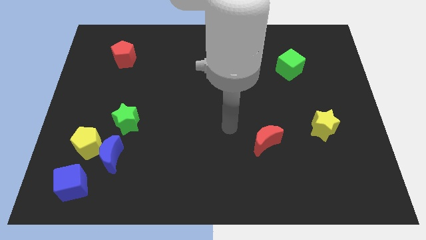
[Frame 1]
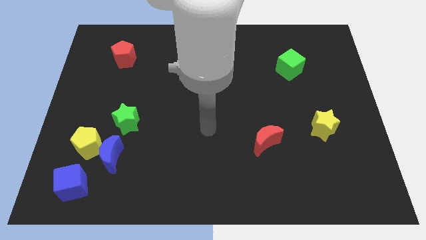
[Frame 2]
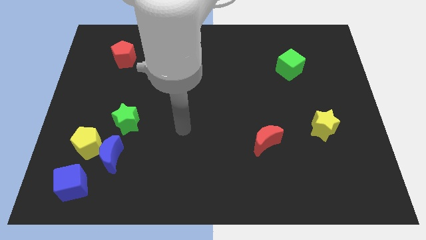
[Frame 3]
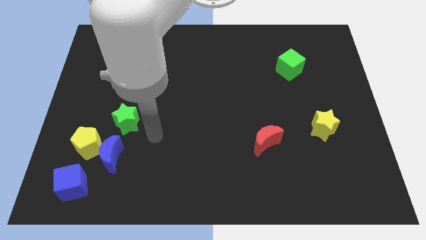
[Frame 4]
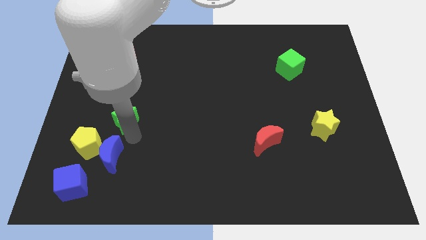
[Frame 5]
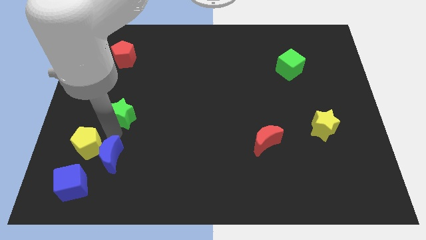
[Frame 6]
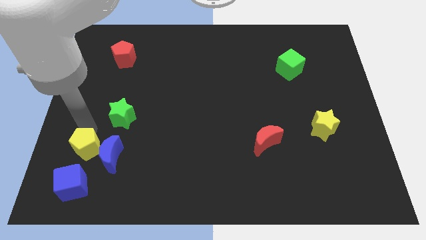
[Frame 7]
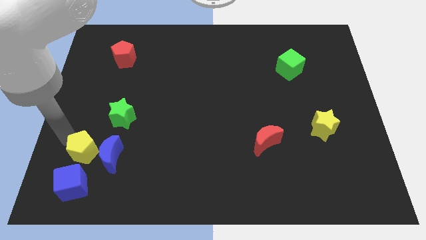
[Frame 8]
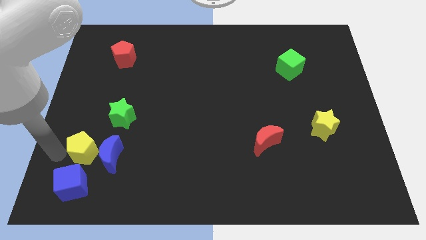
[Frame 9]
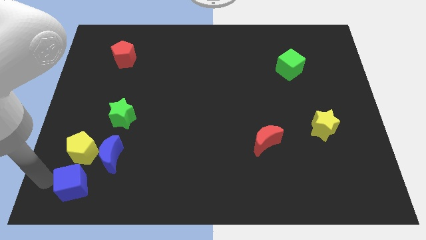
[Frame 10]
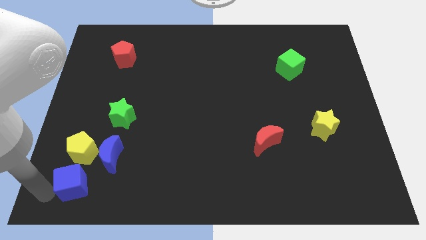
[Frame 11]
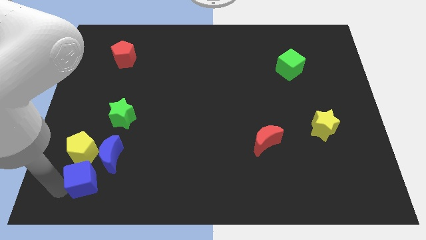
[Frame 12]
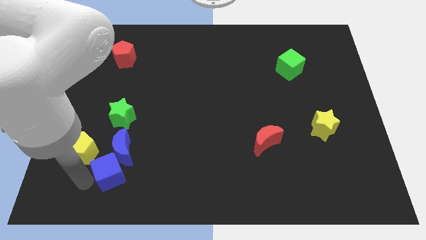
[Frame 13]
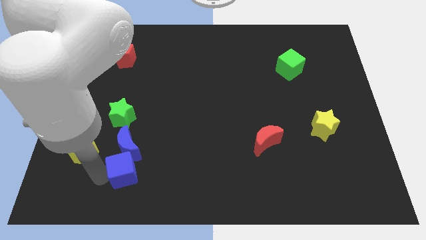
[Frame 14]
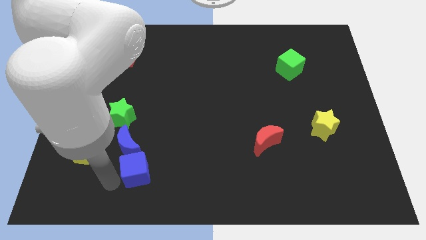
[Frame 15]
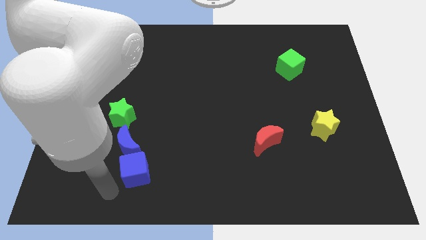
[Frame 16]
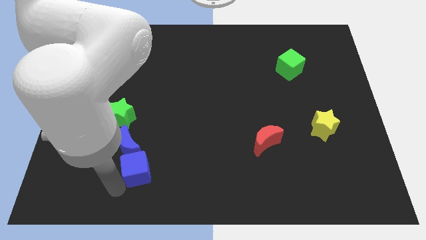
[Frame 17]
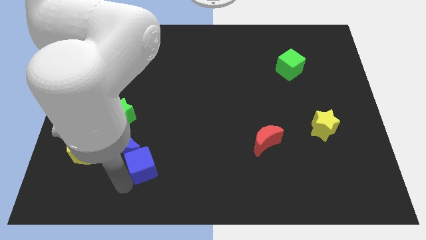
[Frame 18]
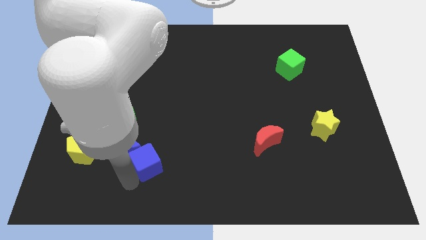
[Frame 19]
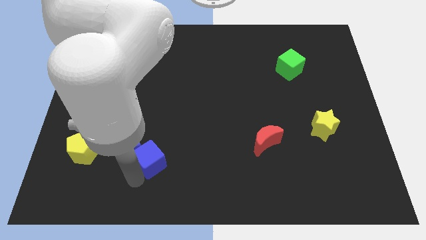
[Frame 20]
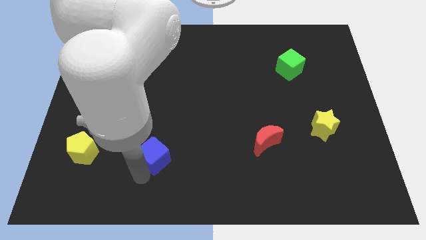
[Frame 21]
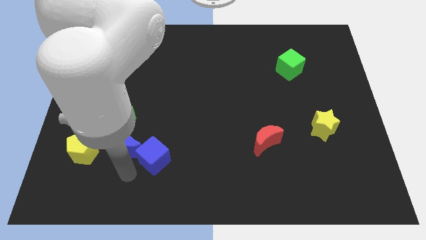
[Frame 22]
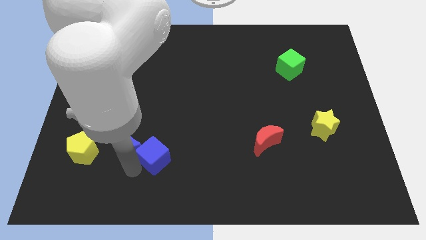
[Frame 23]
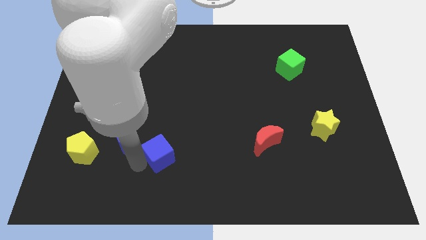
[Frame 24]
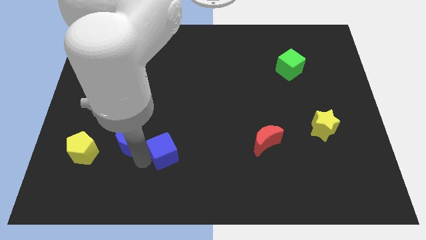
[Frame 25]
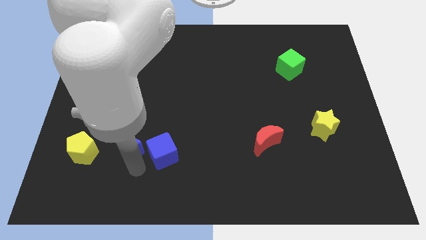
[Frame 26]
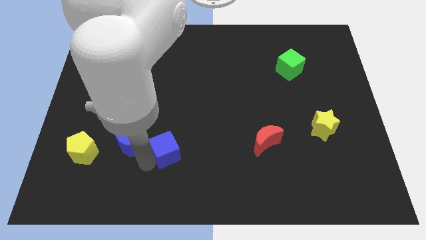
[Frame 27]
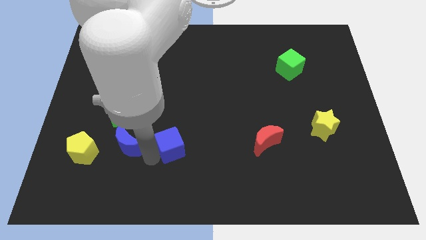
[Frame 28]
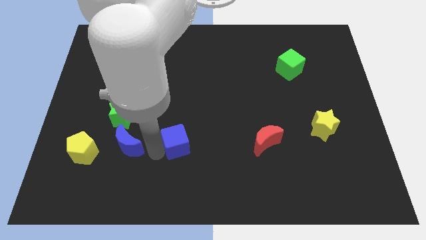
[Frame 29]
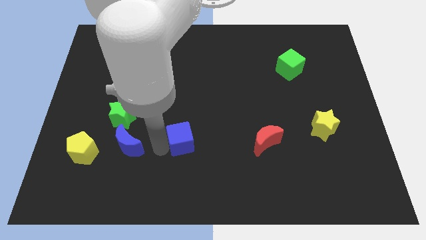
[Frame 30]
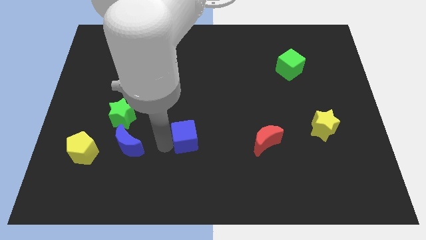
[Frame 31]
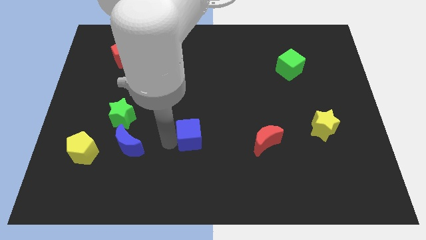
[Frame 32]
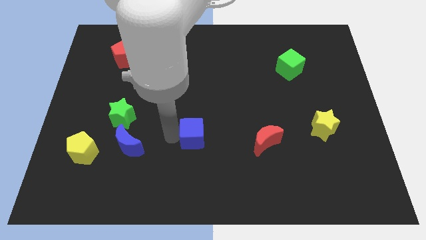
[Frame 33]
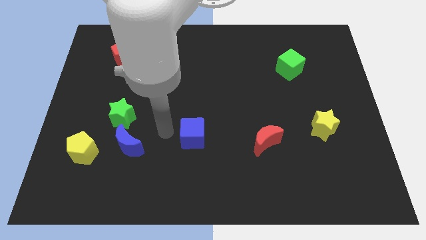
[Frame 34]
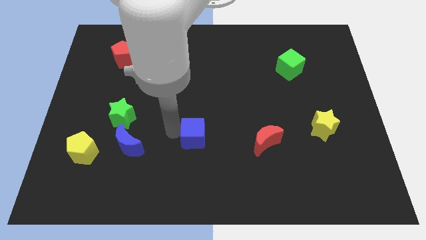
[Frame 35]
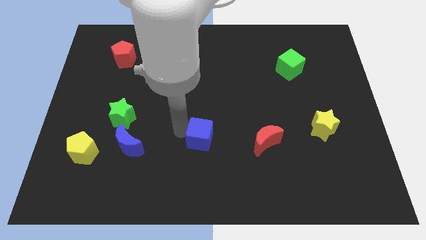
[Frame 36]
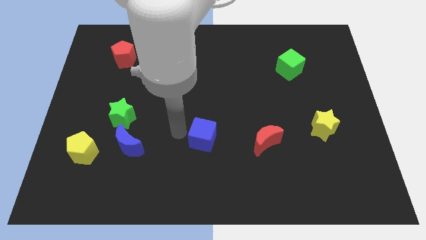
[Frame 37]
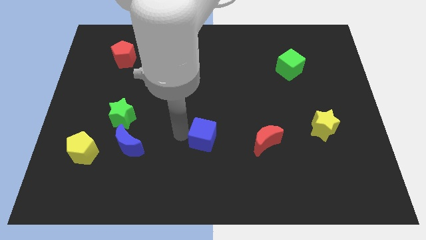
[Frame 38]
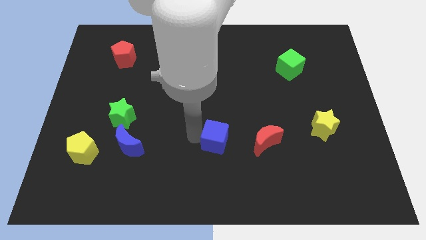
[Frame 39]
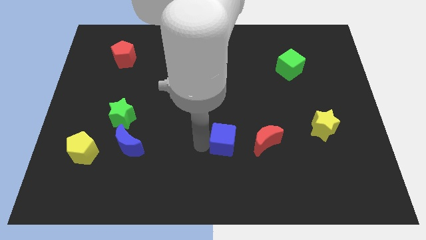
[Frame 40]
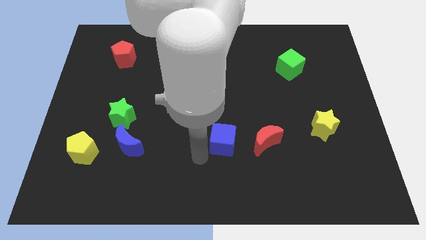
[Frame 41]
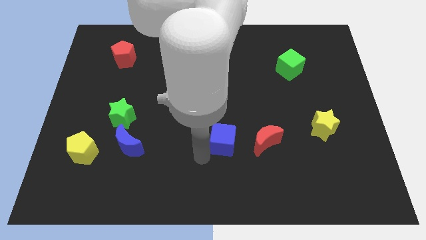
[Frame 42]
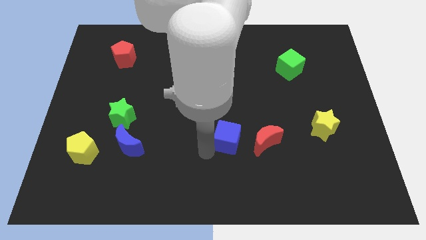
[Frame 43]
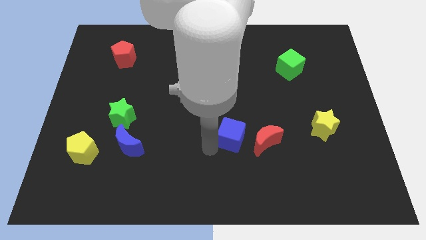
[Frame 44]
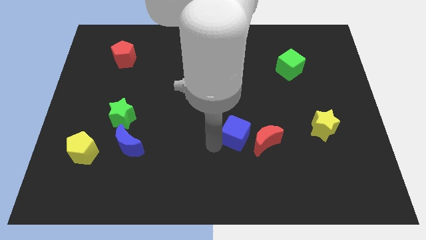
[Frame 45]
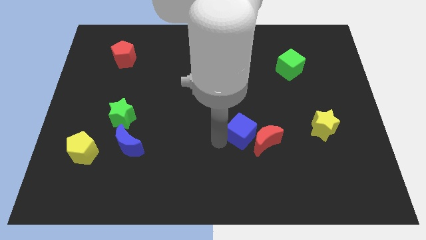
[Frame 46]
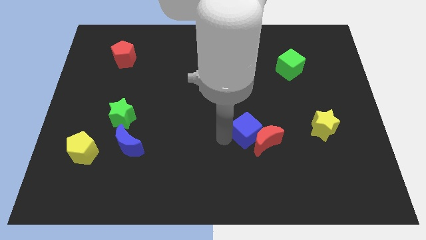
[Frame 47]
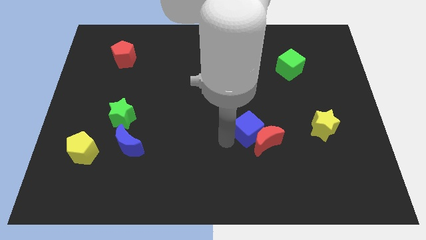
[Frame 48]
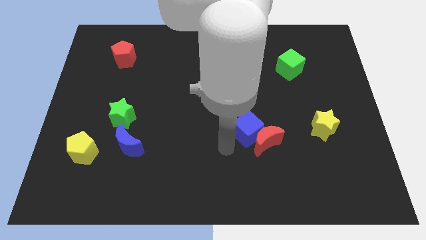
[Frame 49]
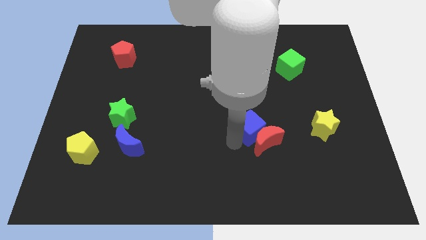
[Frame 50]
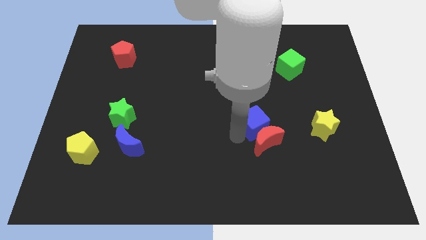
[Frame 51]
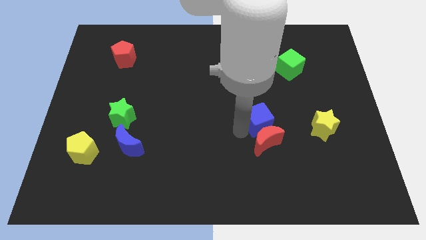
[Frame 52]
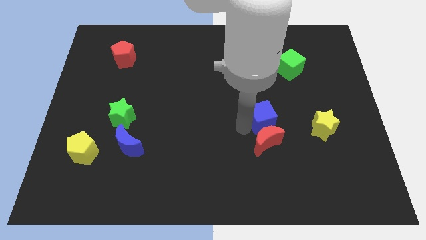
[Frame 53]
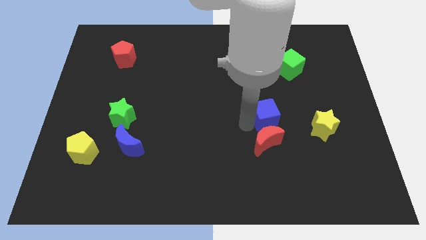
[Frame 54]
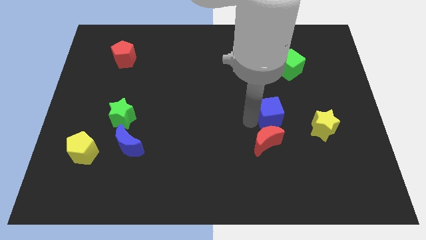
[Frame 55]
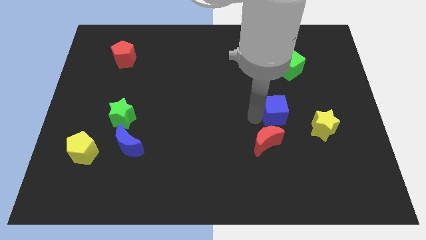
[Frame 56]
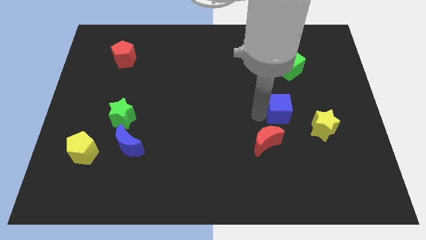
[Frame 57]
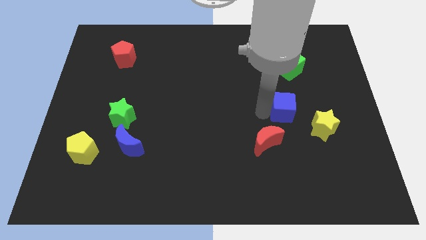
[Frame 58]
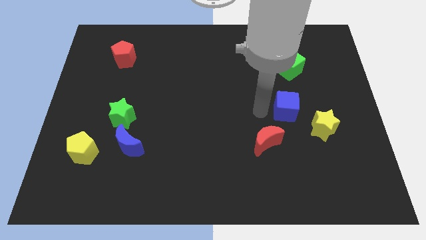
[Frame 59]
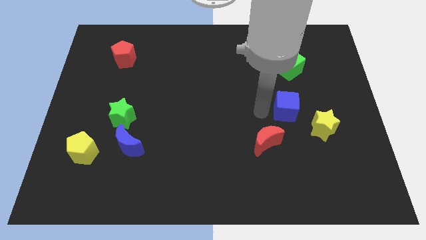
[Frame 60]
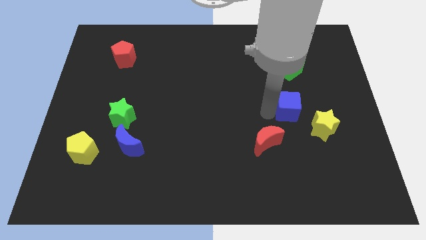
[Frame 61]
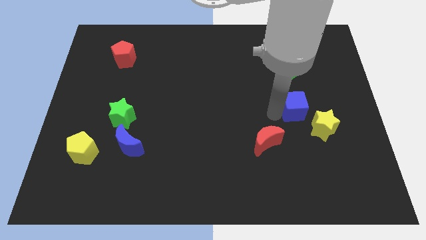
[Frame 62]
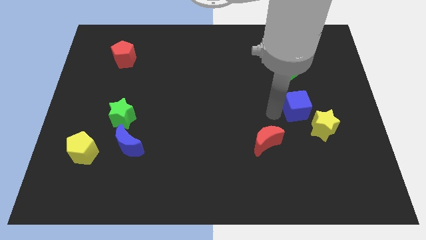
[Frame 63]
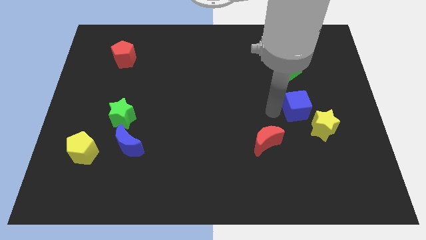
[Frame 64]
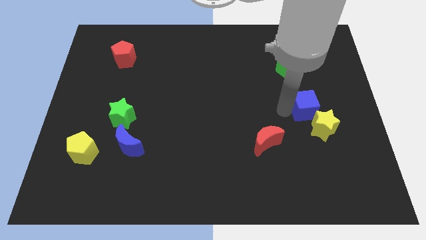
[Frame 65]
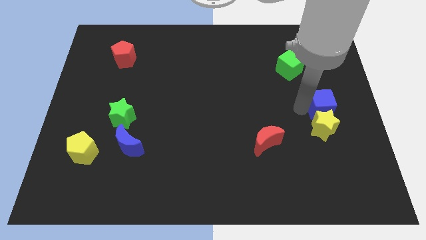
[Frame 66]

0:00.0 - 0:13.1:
put the blue cube to the right side of the board
